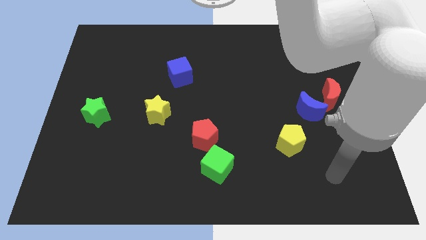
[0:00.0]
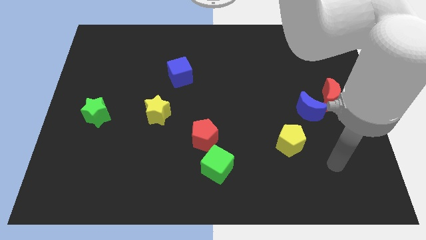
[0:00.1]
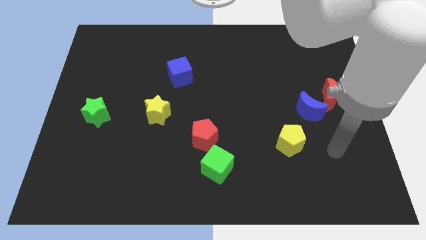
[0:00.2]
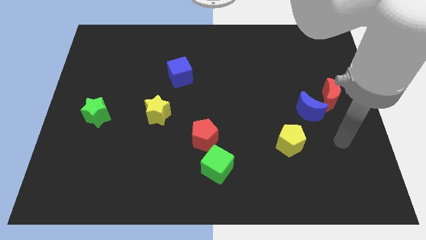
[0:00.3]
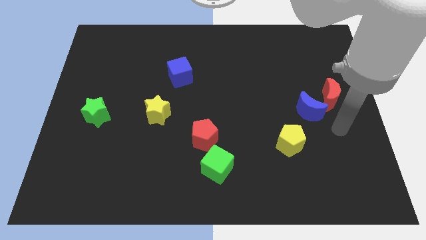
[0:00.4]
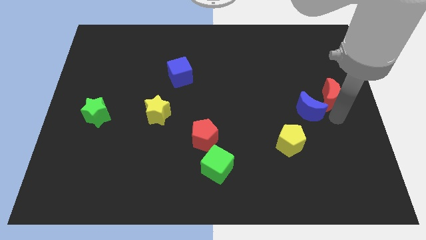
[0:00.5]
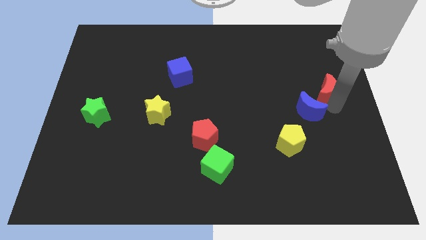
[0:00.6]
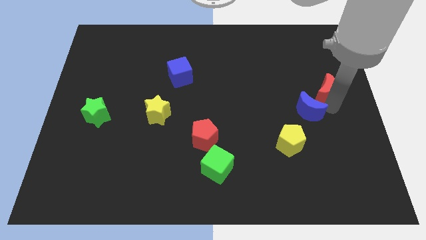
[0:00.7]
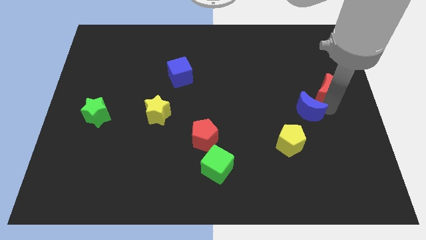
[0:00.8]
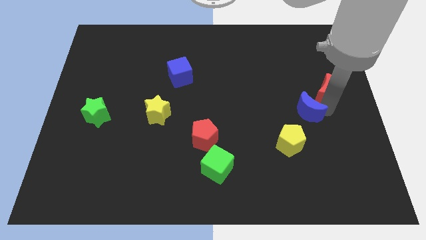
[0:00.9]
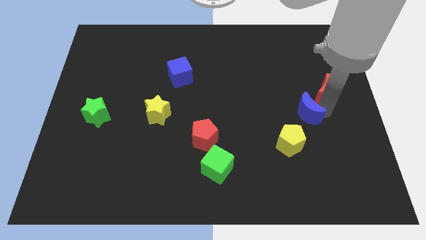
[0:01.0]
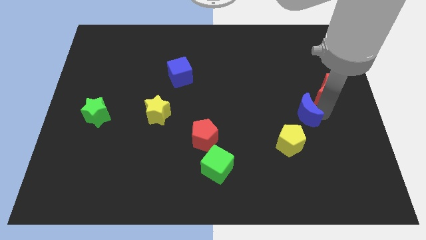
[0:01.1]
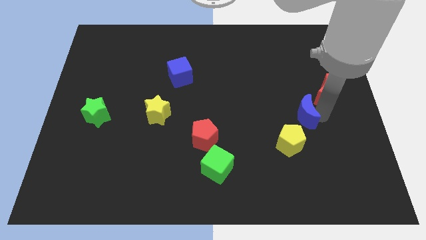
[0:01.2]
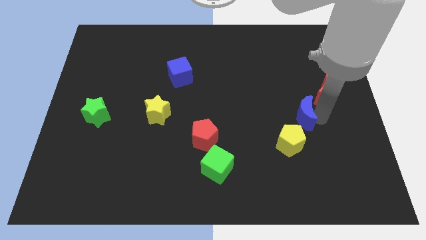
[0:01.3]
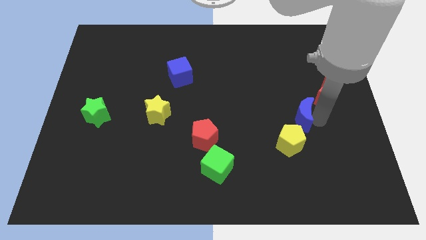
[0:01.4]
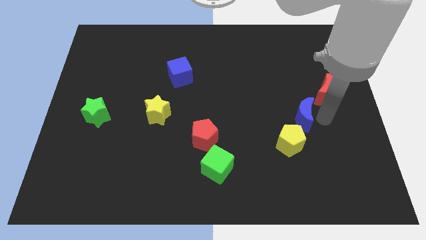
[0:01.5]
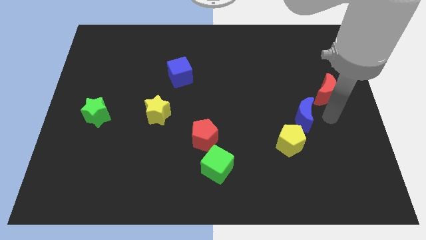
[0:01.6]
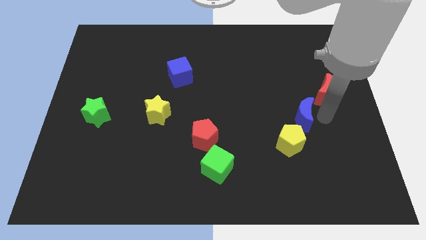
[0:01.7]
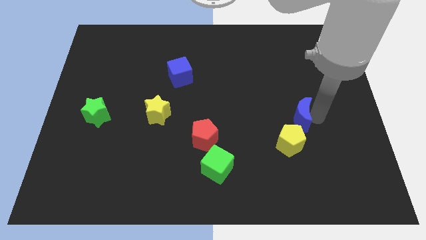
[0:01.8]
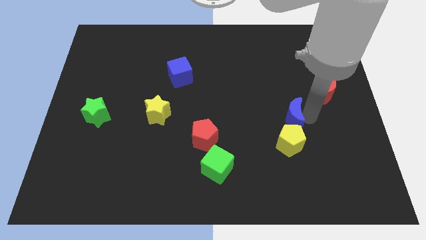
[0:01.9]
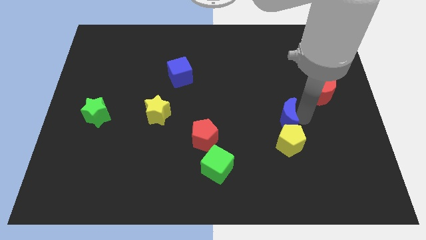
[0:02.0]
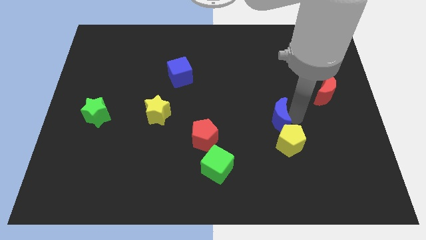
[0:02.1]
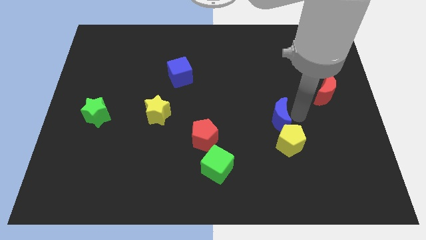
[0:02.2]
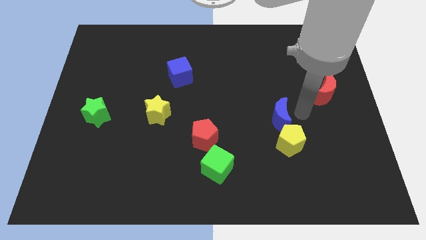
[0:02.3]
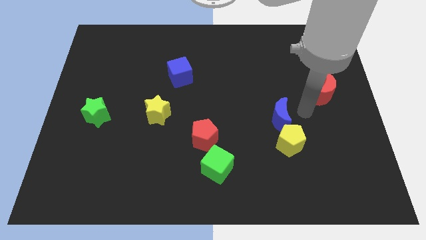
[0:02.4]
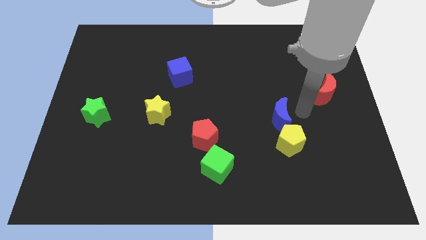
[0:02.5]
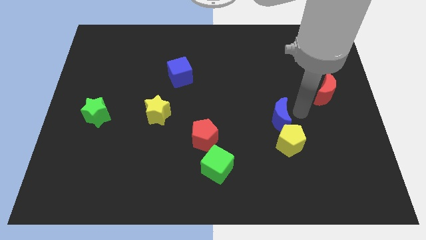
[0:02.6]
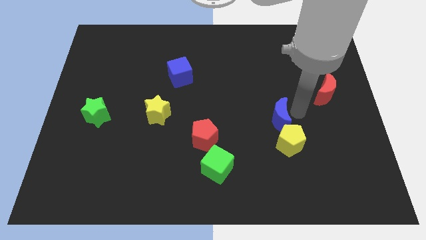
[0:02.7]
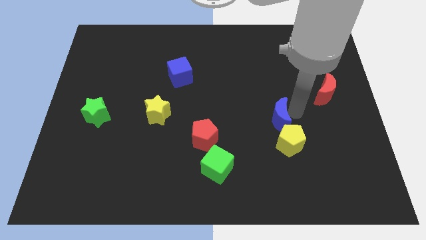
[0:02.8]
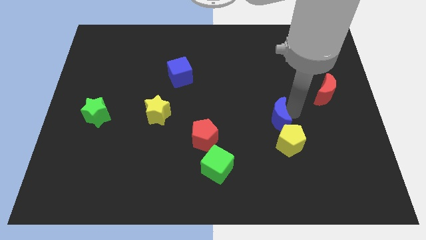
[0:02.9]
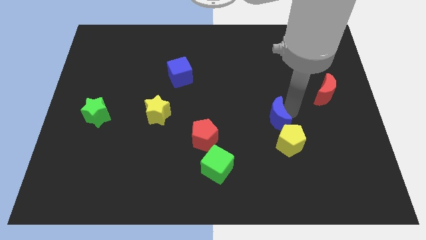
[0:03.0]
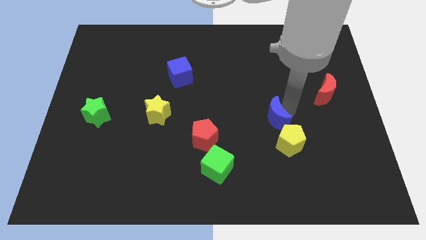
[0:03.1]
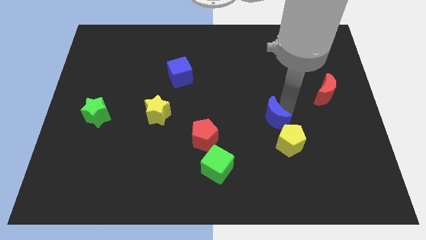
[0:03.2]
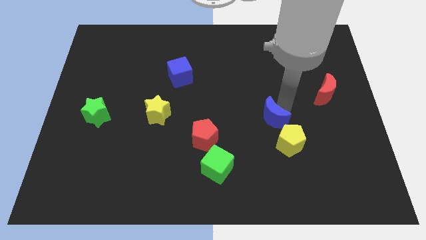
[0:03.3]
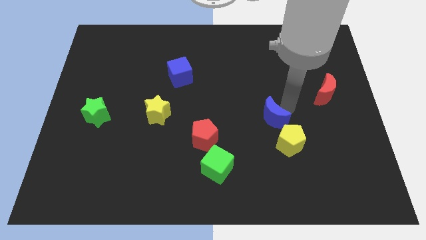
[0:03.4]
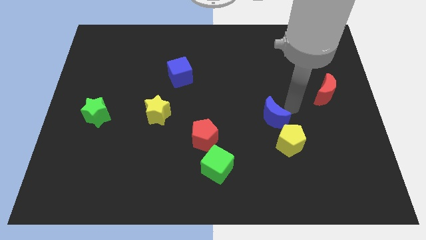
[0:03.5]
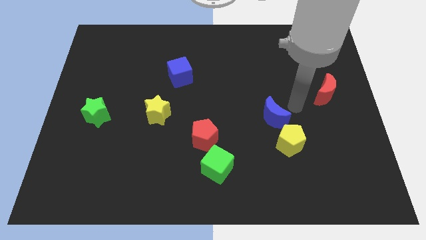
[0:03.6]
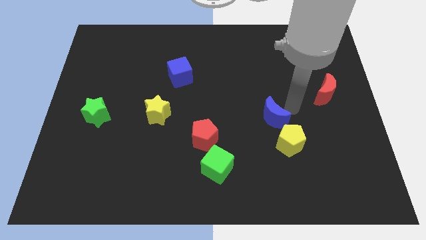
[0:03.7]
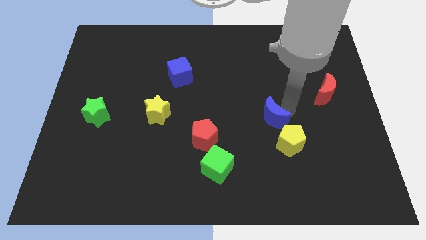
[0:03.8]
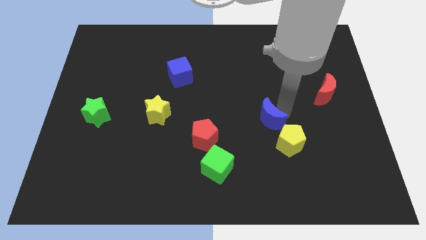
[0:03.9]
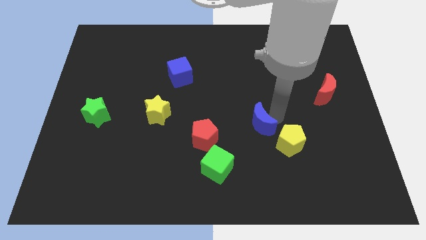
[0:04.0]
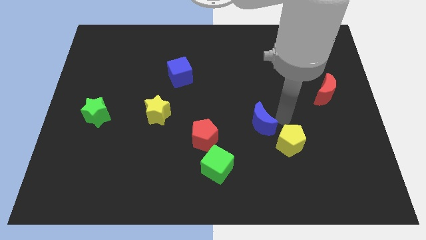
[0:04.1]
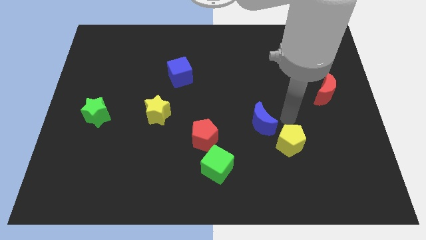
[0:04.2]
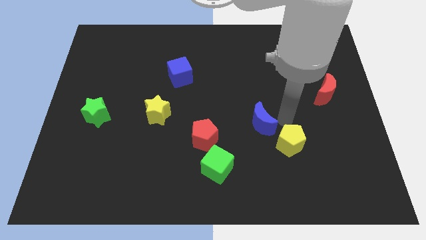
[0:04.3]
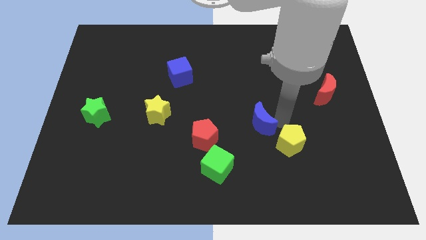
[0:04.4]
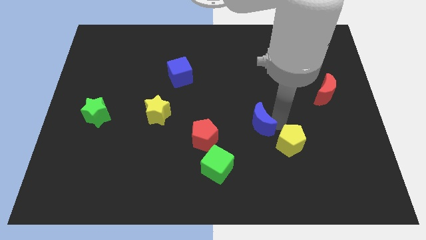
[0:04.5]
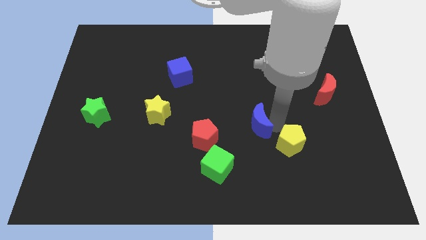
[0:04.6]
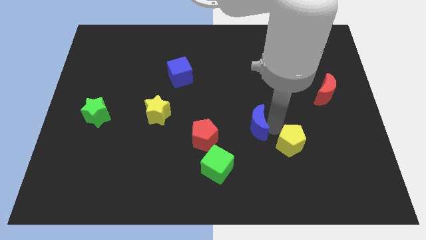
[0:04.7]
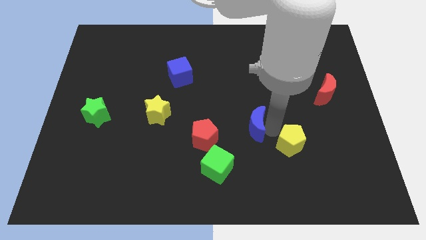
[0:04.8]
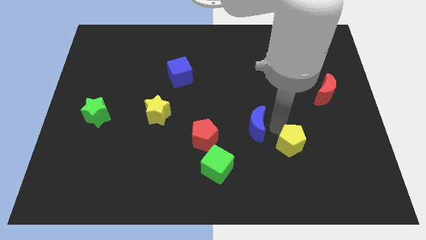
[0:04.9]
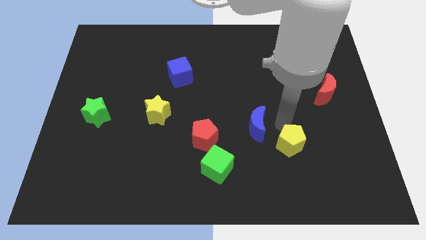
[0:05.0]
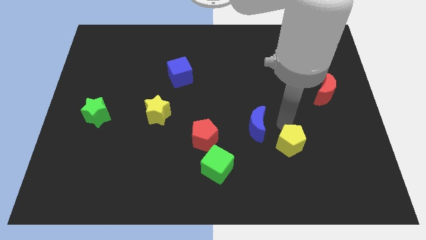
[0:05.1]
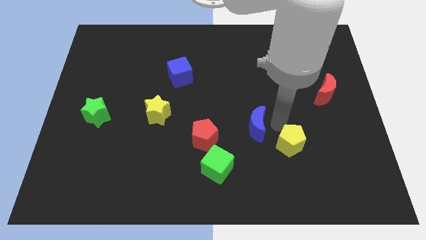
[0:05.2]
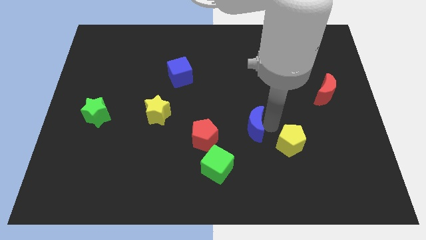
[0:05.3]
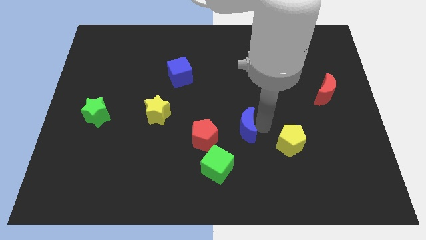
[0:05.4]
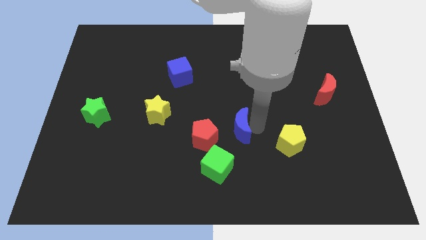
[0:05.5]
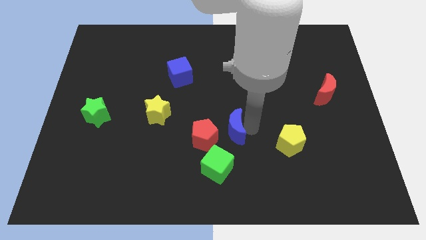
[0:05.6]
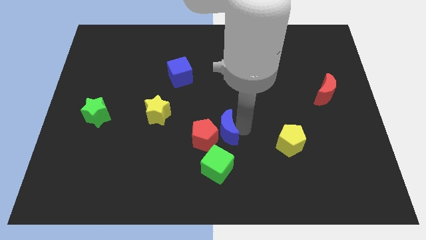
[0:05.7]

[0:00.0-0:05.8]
slide the blue moon next to the red pentagon

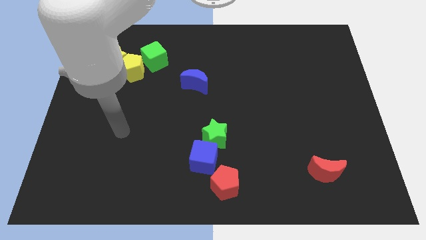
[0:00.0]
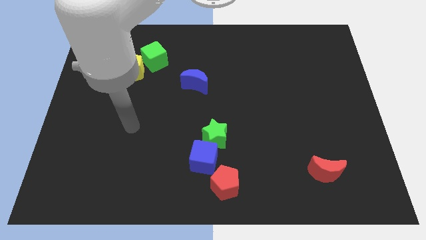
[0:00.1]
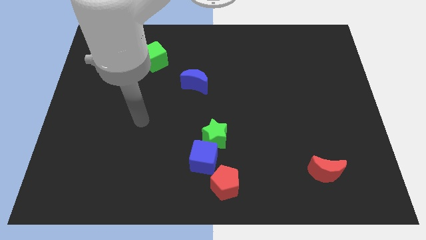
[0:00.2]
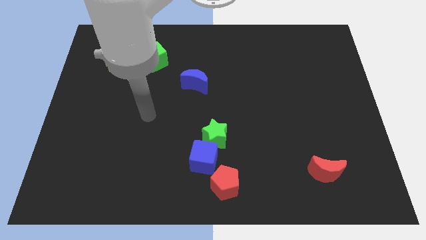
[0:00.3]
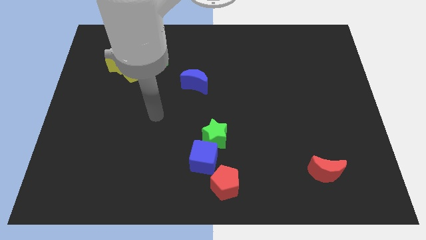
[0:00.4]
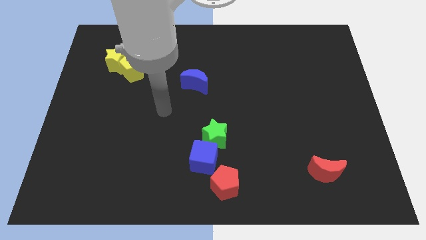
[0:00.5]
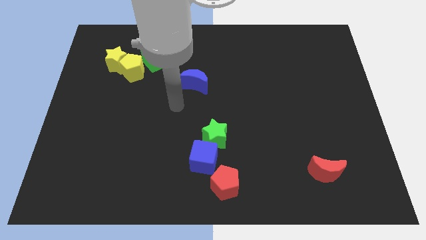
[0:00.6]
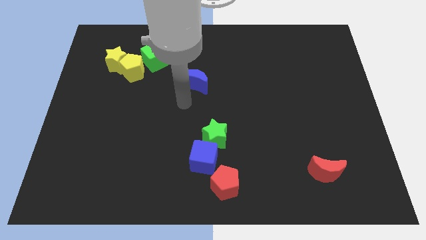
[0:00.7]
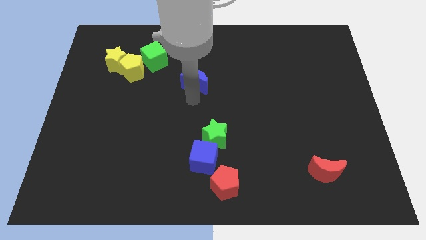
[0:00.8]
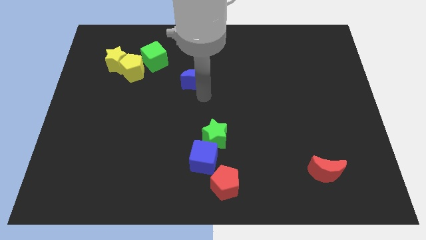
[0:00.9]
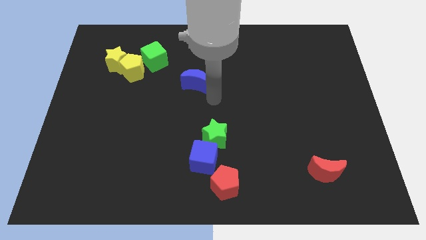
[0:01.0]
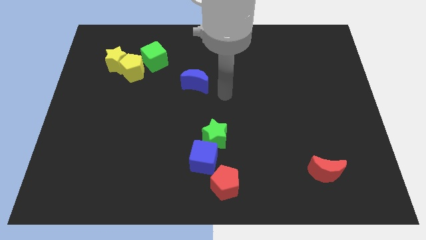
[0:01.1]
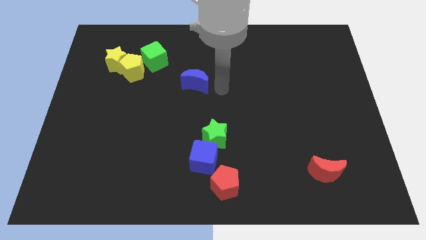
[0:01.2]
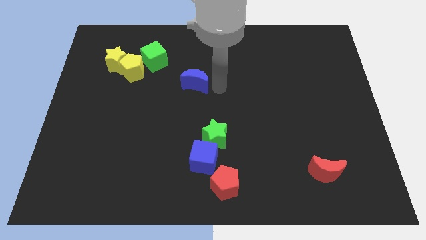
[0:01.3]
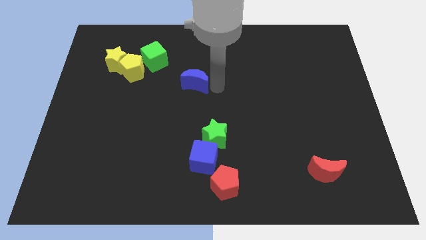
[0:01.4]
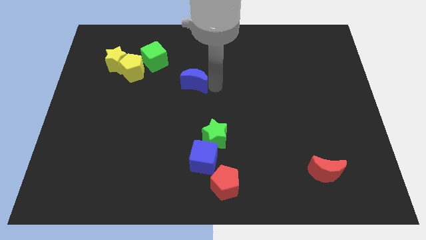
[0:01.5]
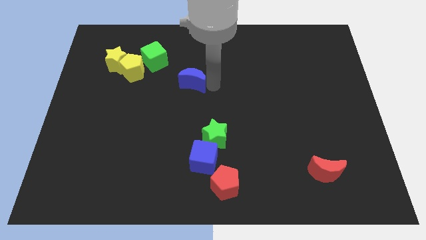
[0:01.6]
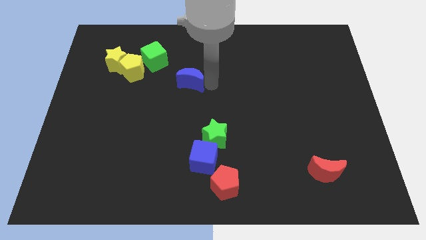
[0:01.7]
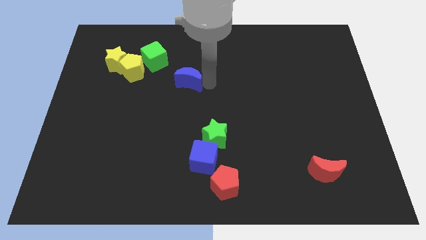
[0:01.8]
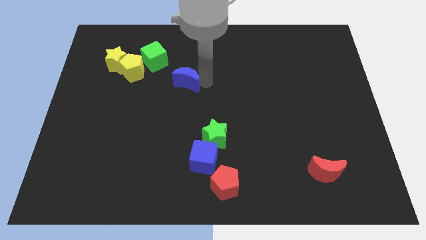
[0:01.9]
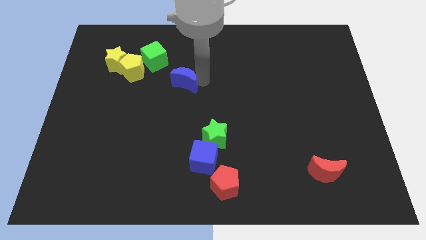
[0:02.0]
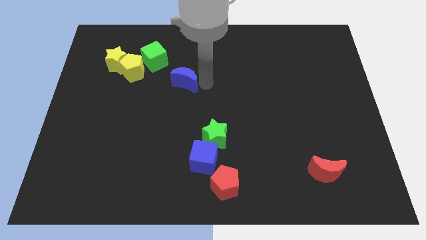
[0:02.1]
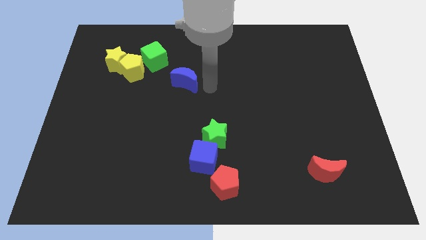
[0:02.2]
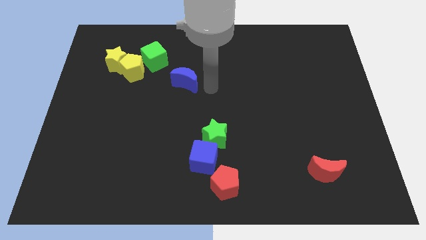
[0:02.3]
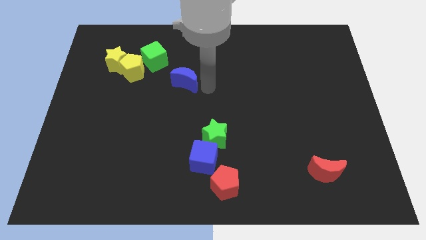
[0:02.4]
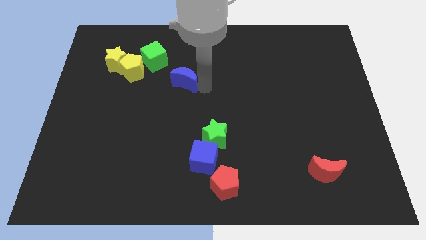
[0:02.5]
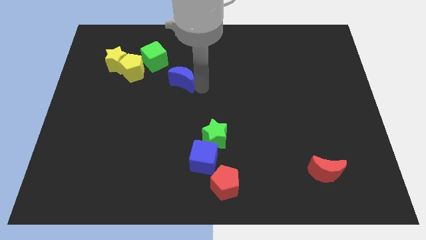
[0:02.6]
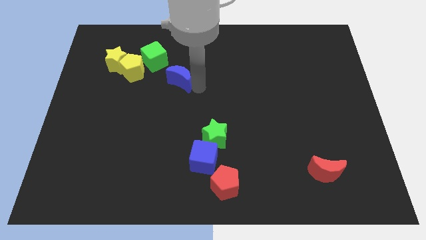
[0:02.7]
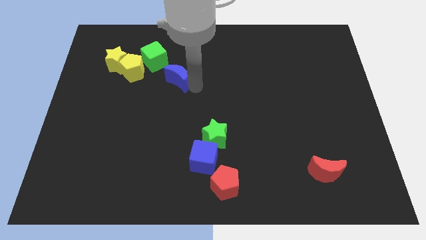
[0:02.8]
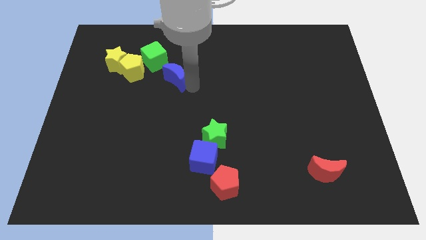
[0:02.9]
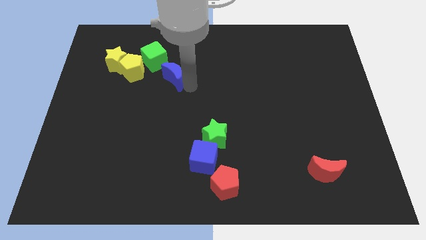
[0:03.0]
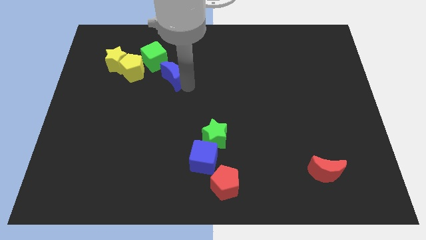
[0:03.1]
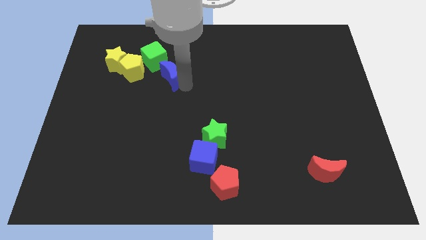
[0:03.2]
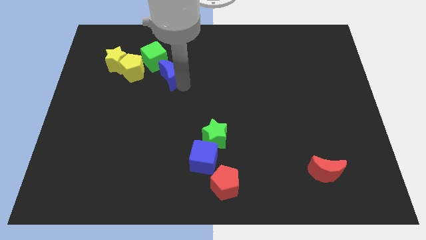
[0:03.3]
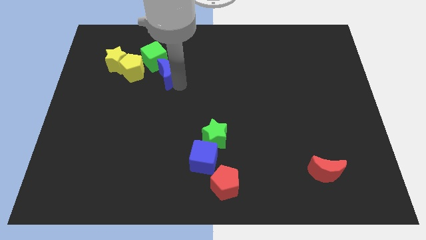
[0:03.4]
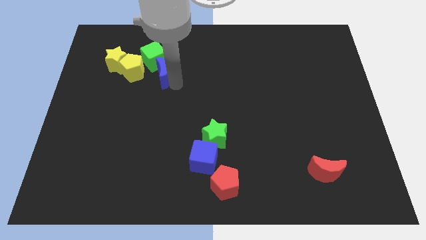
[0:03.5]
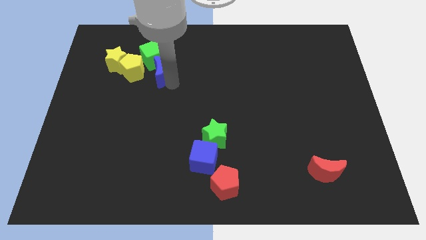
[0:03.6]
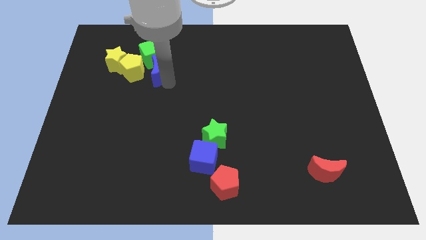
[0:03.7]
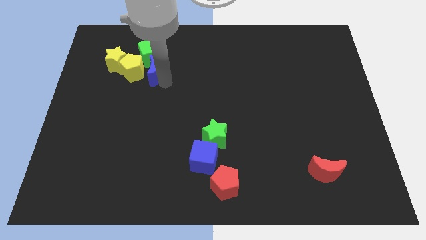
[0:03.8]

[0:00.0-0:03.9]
move the blue moon towards the yellow pentagon
